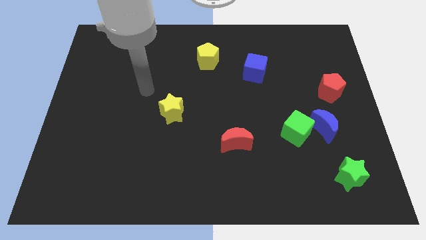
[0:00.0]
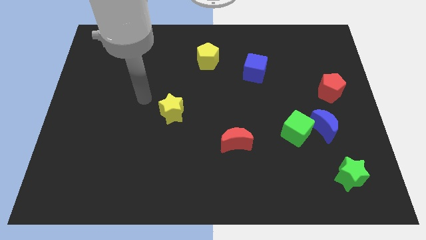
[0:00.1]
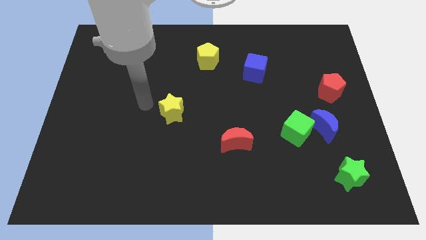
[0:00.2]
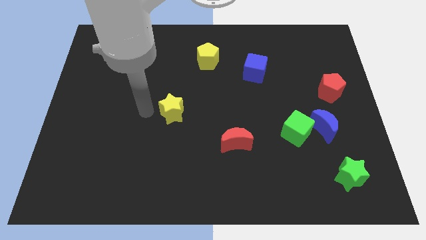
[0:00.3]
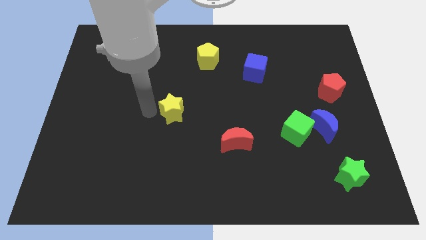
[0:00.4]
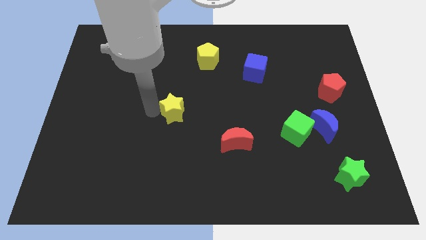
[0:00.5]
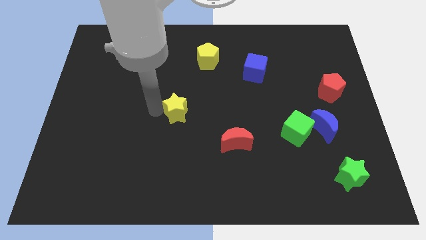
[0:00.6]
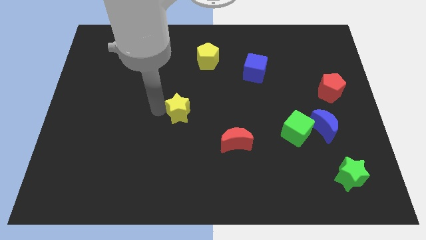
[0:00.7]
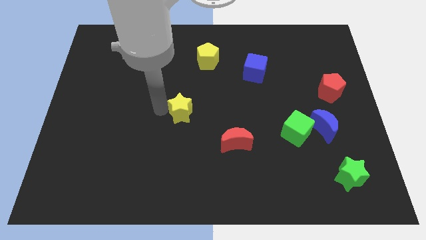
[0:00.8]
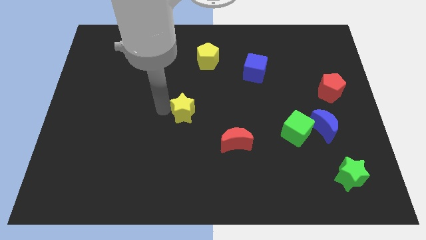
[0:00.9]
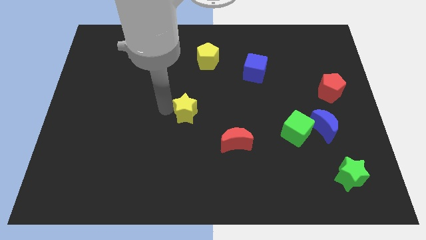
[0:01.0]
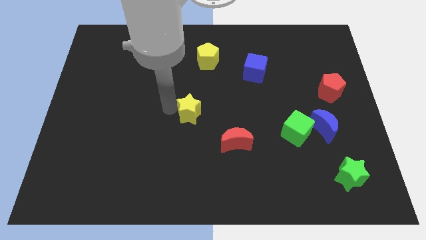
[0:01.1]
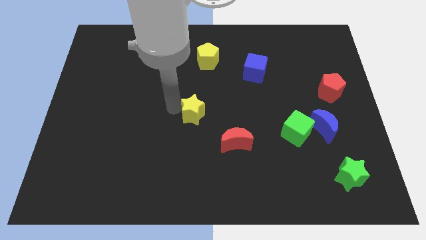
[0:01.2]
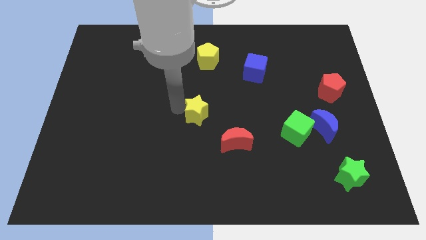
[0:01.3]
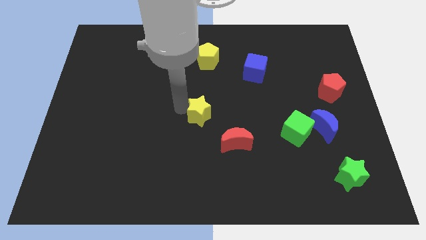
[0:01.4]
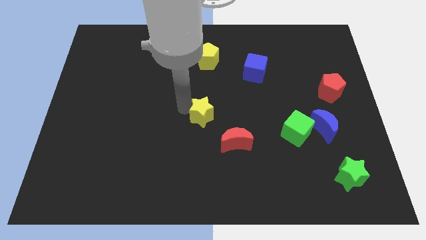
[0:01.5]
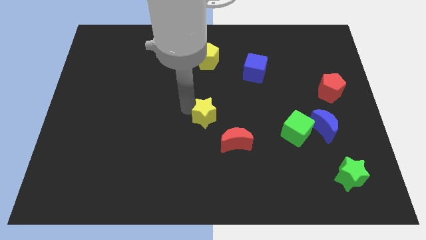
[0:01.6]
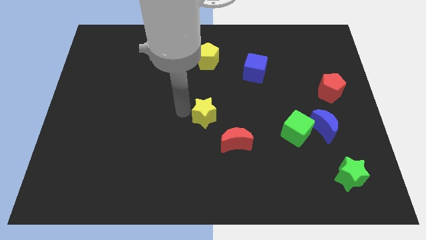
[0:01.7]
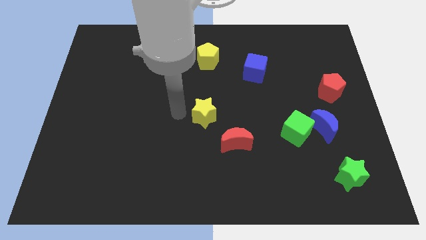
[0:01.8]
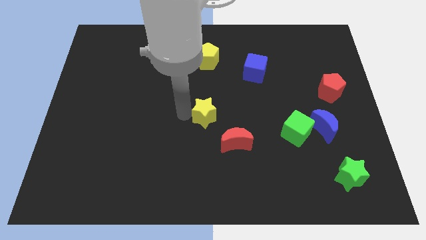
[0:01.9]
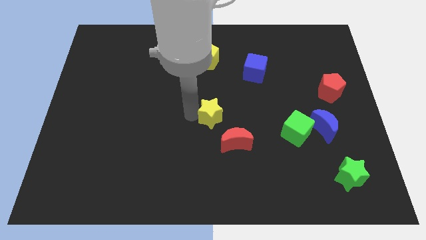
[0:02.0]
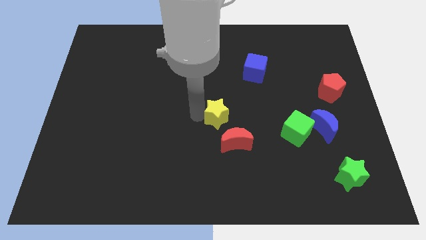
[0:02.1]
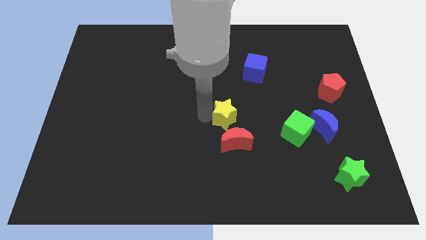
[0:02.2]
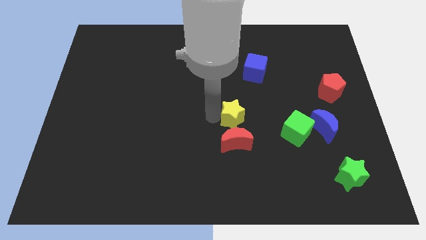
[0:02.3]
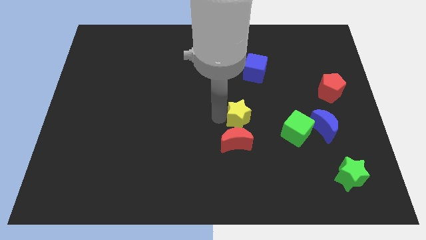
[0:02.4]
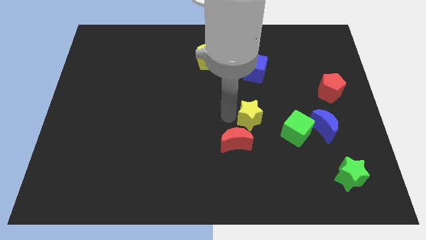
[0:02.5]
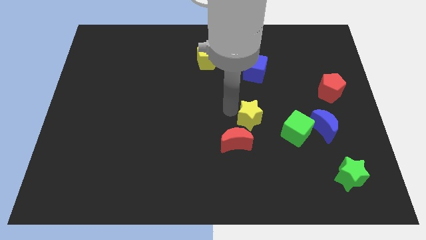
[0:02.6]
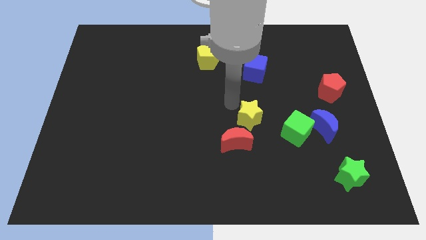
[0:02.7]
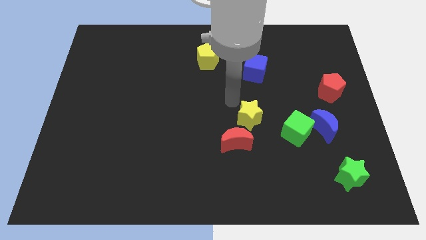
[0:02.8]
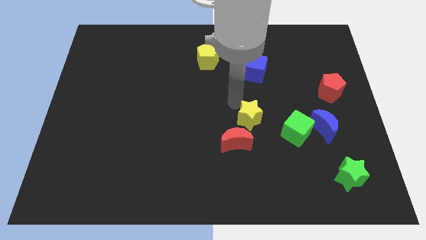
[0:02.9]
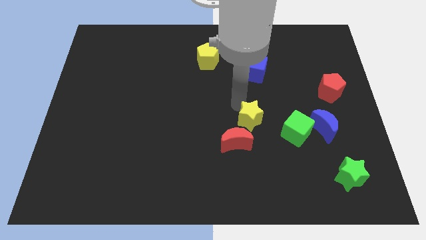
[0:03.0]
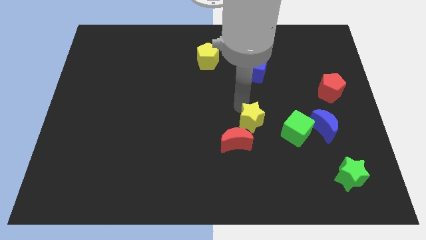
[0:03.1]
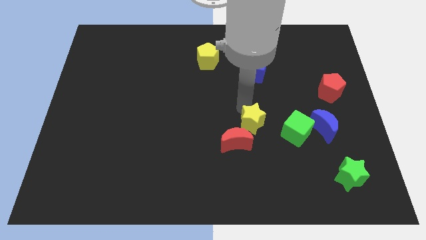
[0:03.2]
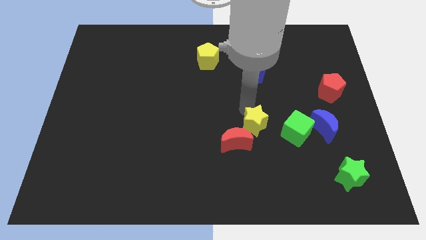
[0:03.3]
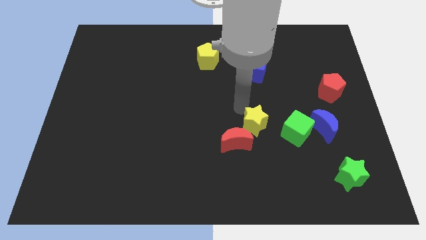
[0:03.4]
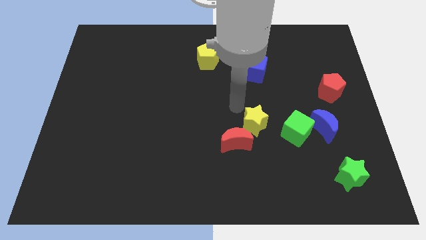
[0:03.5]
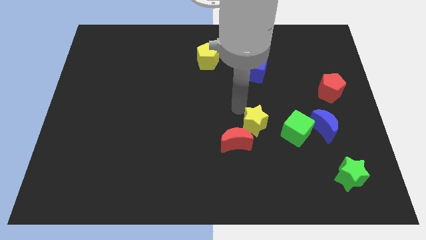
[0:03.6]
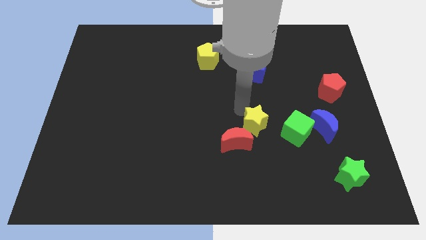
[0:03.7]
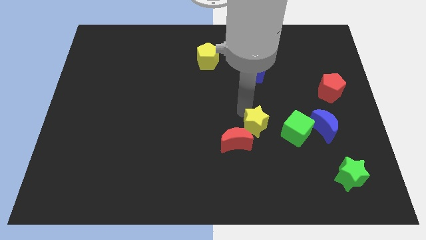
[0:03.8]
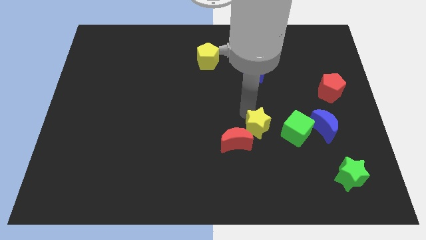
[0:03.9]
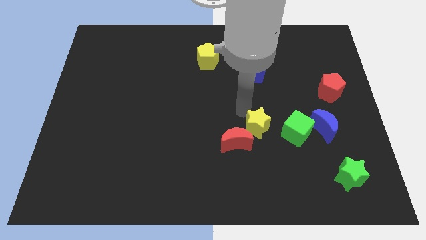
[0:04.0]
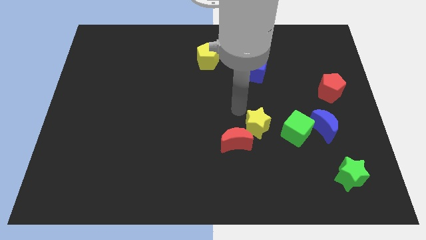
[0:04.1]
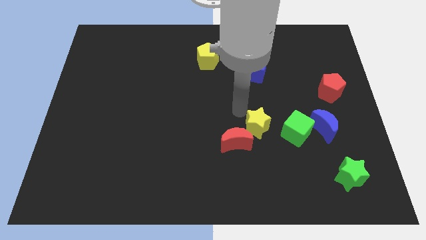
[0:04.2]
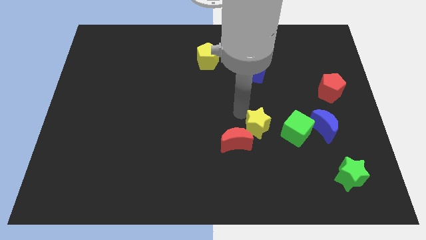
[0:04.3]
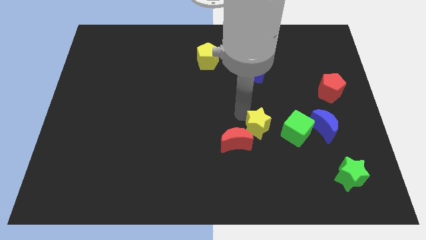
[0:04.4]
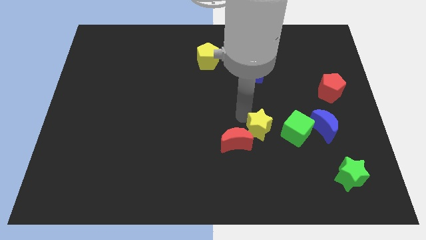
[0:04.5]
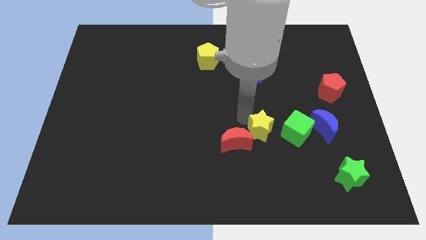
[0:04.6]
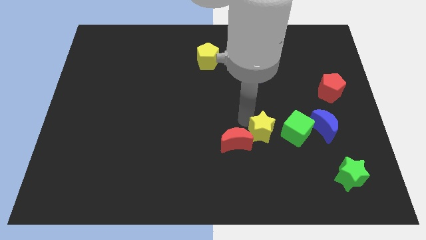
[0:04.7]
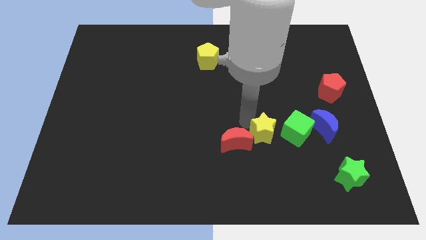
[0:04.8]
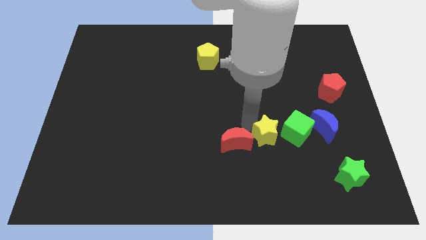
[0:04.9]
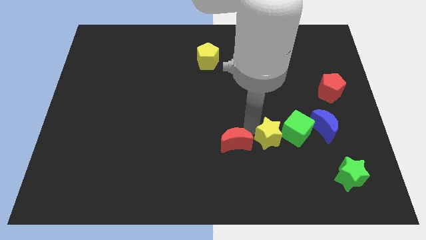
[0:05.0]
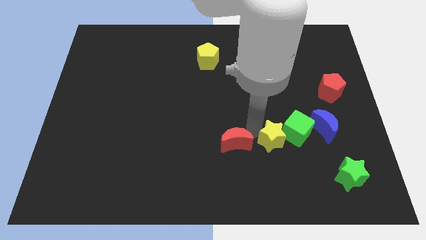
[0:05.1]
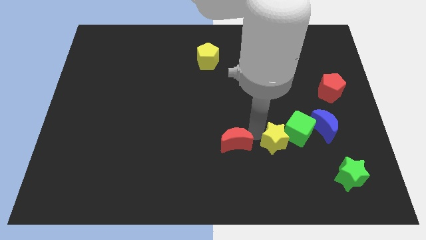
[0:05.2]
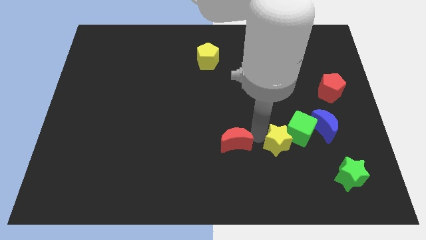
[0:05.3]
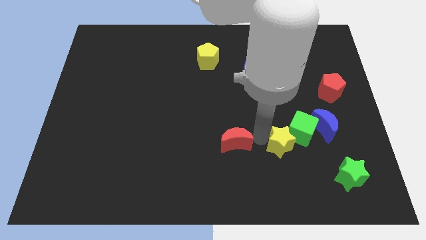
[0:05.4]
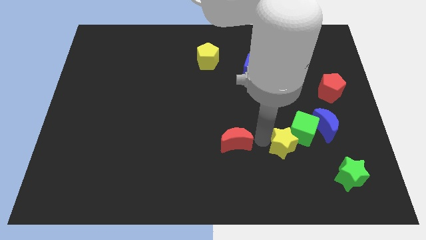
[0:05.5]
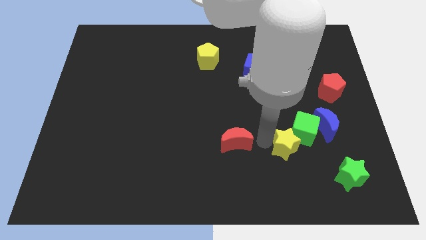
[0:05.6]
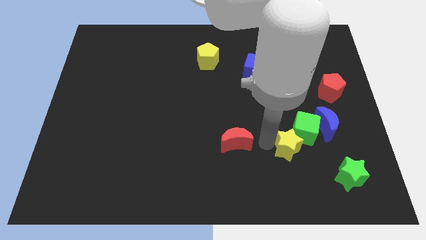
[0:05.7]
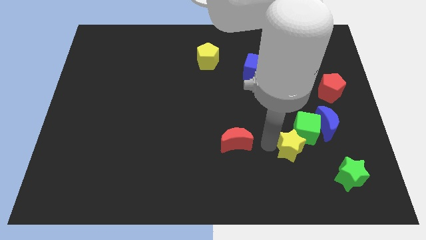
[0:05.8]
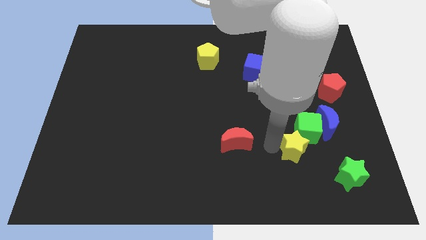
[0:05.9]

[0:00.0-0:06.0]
slide the yellow star to the top left side of the green star

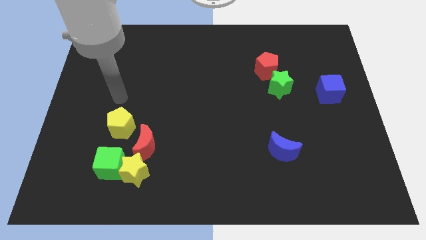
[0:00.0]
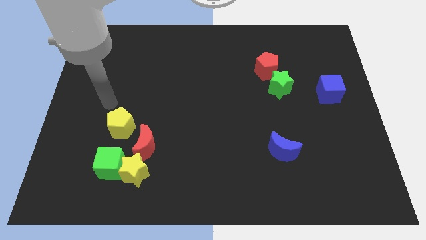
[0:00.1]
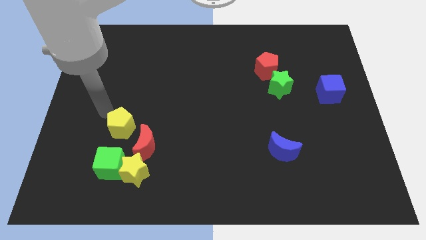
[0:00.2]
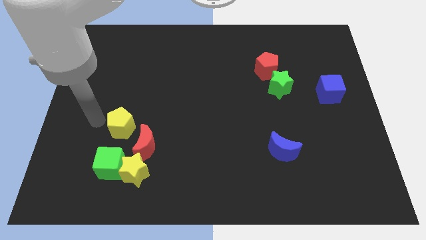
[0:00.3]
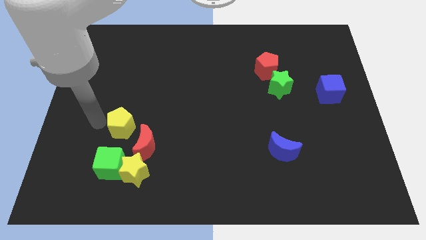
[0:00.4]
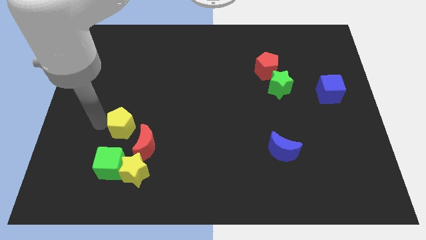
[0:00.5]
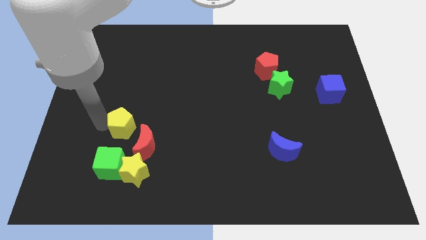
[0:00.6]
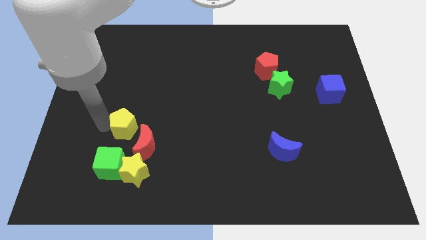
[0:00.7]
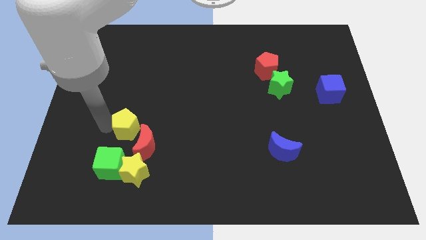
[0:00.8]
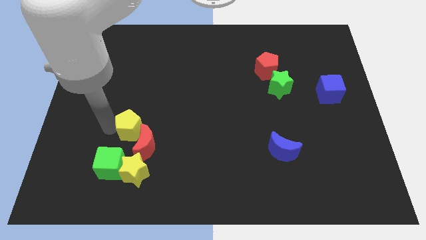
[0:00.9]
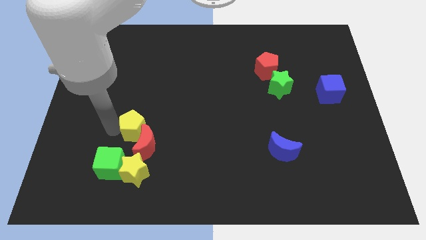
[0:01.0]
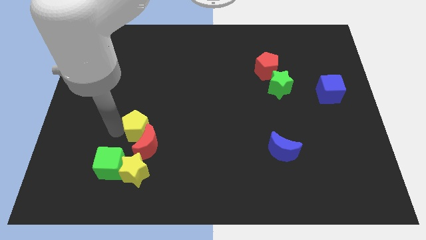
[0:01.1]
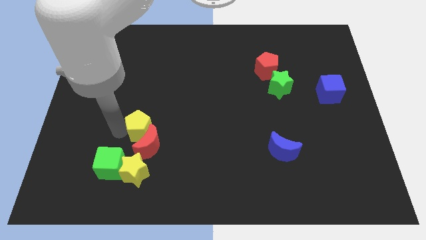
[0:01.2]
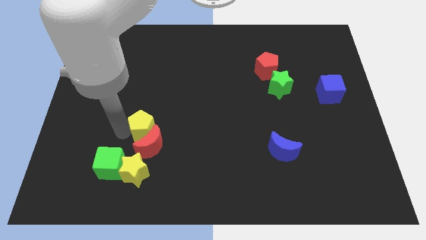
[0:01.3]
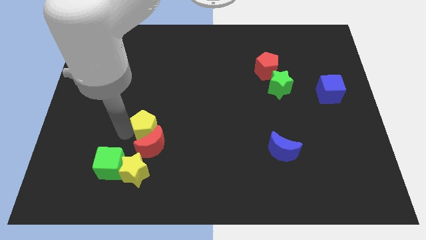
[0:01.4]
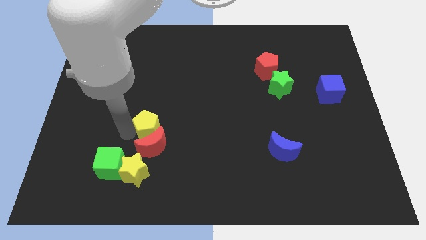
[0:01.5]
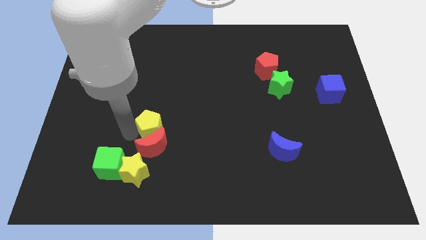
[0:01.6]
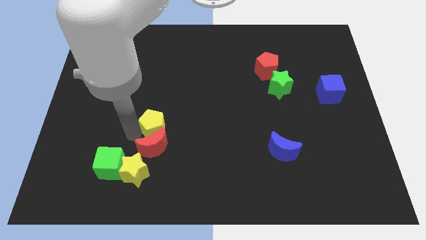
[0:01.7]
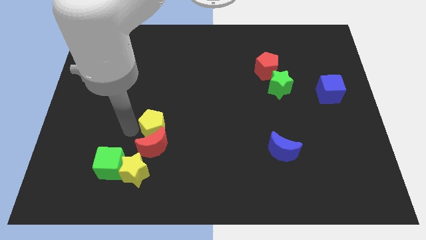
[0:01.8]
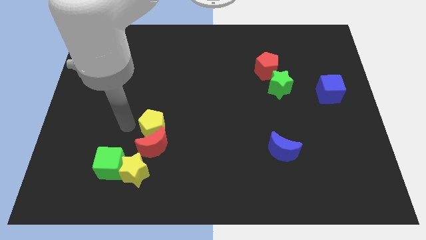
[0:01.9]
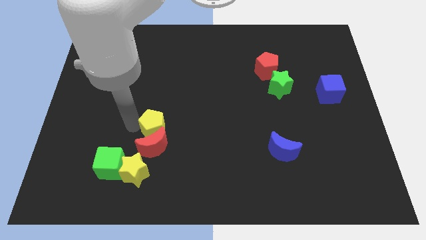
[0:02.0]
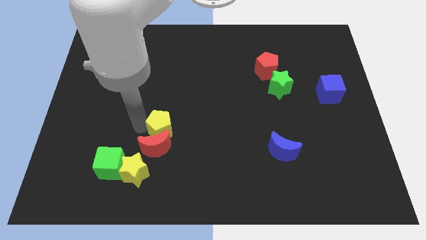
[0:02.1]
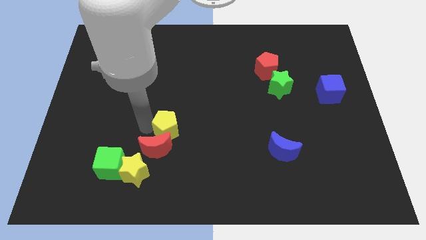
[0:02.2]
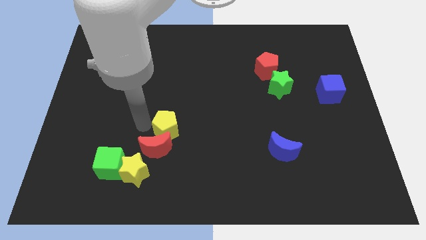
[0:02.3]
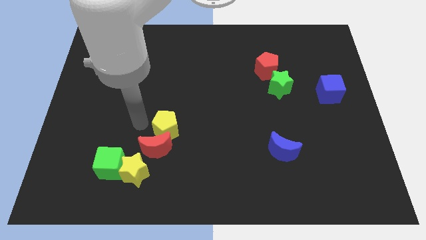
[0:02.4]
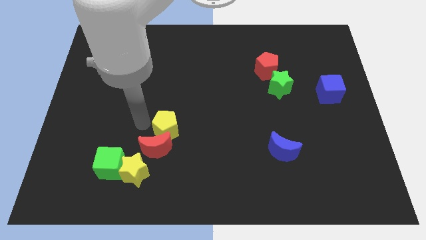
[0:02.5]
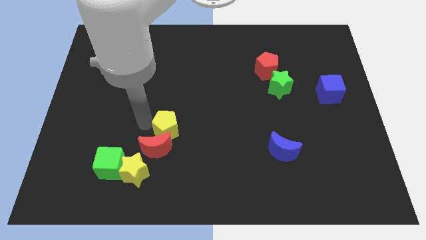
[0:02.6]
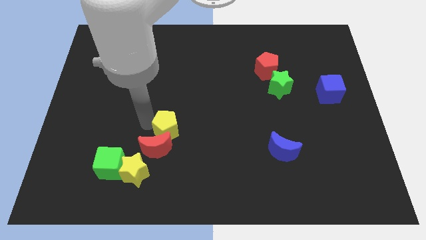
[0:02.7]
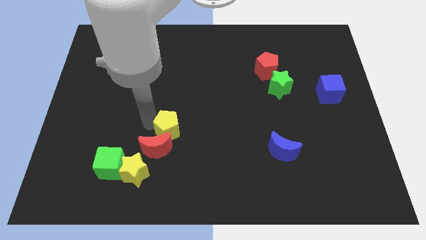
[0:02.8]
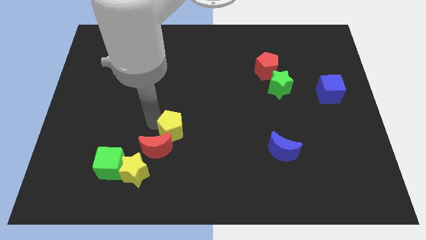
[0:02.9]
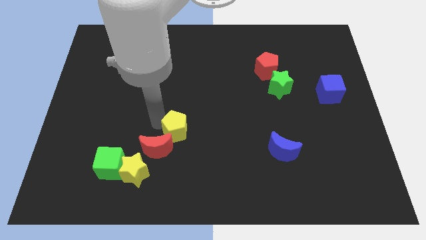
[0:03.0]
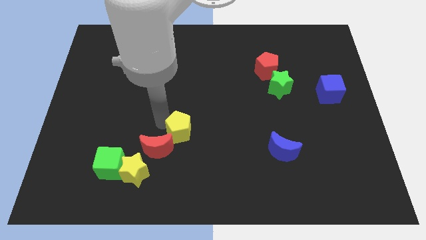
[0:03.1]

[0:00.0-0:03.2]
slide the yellow pentagon to the right side of the red moon
